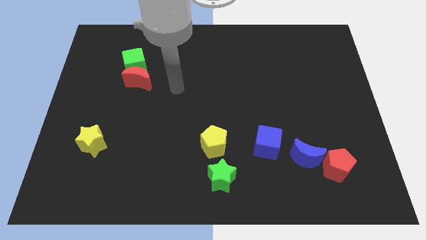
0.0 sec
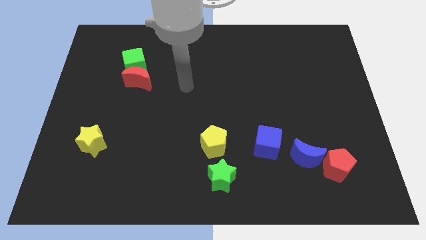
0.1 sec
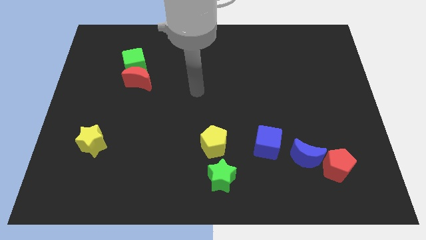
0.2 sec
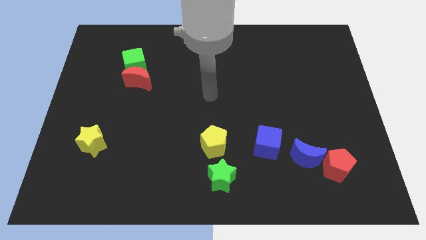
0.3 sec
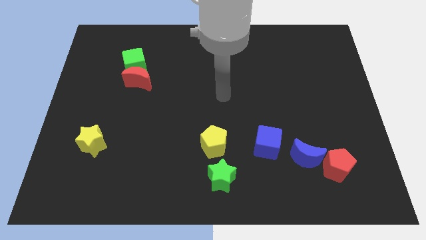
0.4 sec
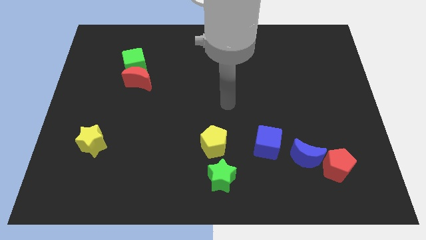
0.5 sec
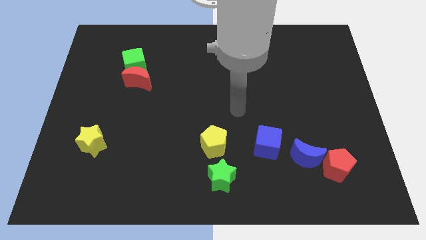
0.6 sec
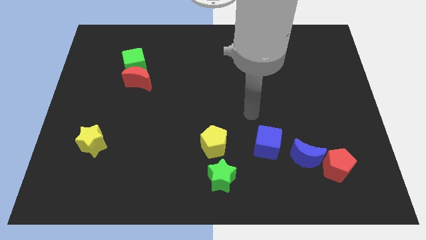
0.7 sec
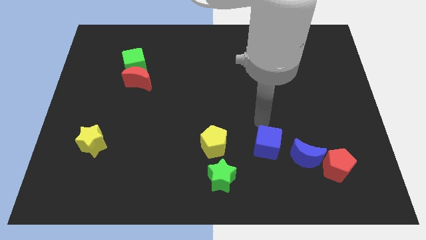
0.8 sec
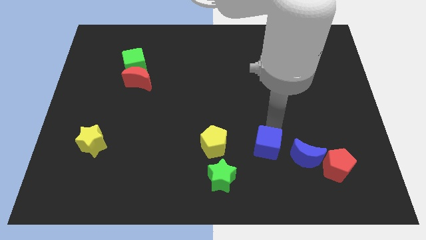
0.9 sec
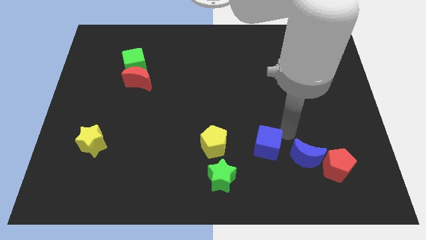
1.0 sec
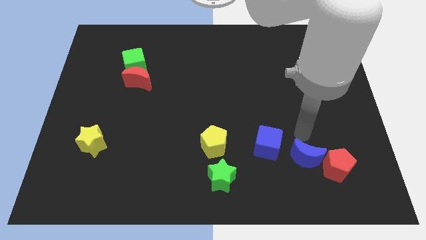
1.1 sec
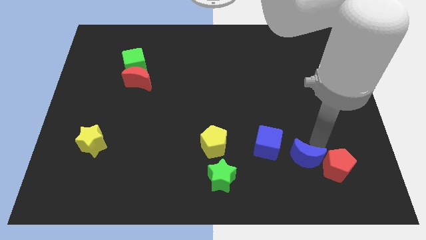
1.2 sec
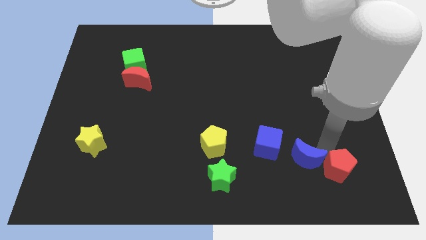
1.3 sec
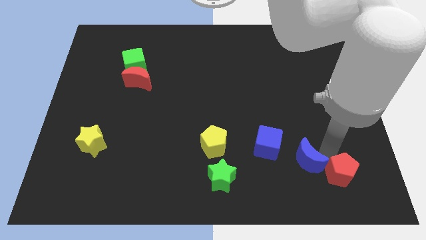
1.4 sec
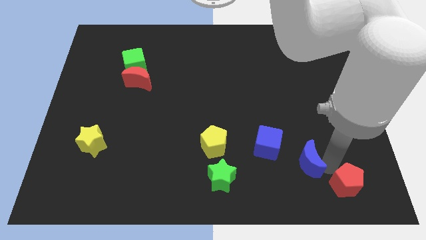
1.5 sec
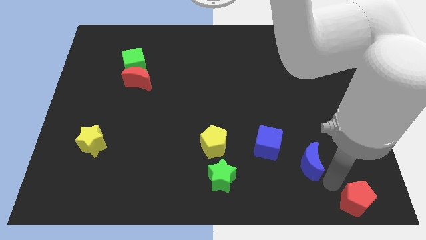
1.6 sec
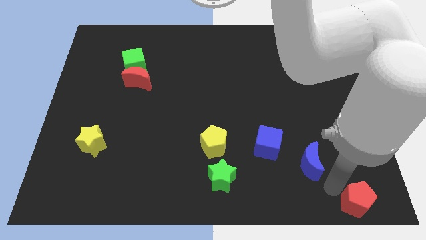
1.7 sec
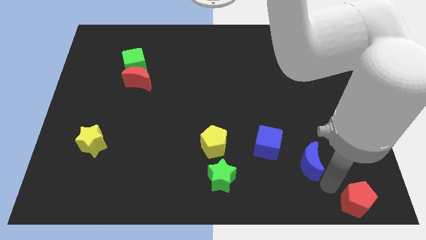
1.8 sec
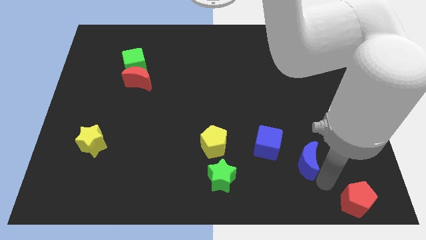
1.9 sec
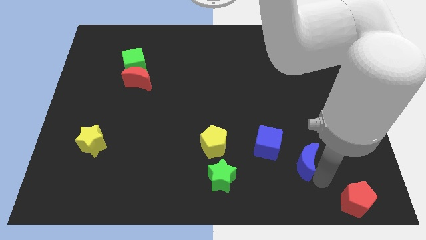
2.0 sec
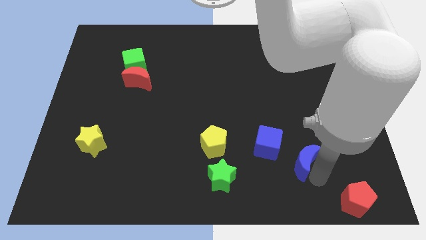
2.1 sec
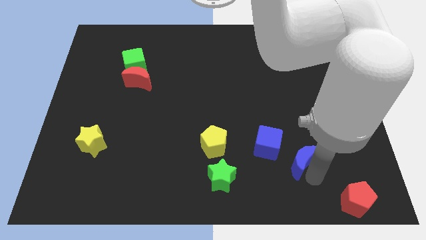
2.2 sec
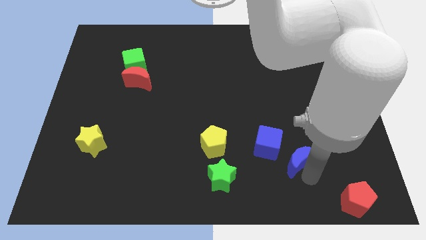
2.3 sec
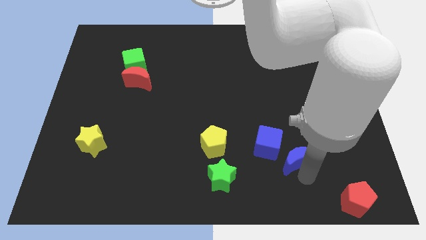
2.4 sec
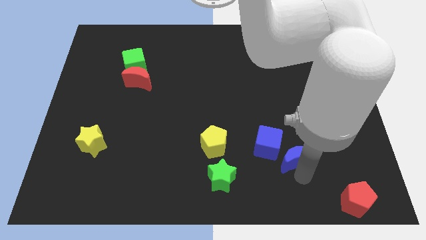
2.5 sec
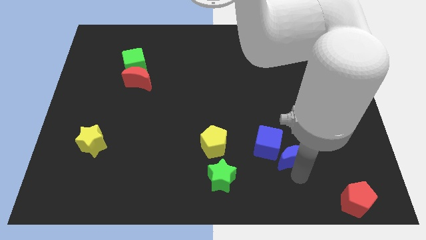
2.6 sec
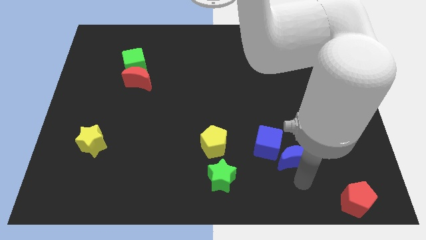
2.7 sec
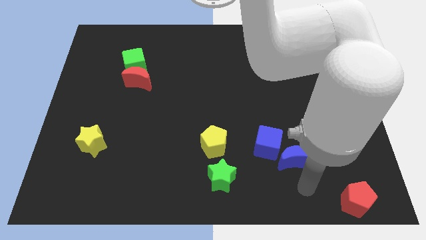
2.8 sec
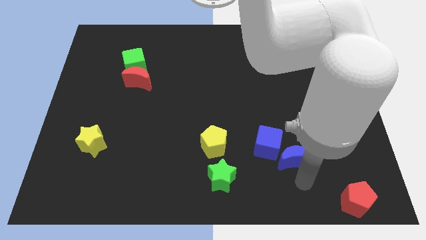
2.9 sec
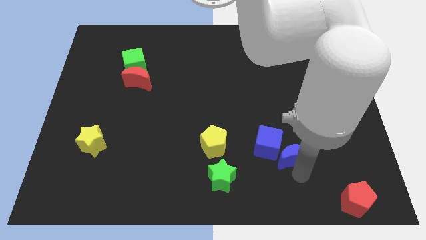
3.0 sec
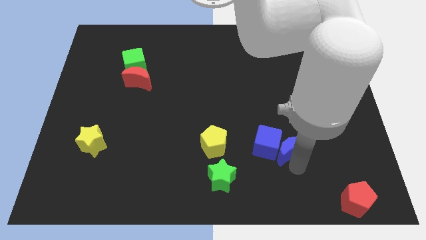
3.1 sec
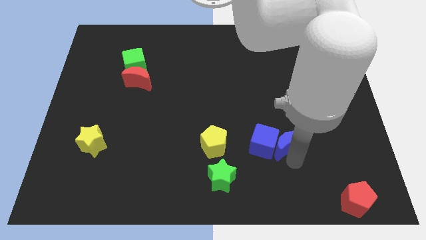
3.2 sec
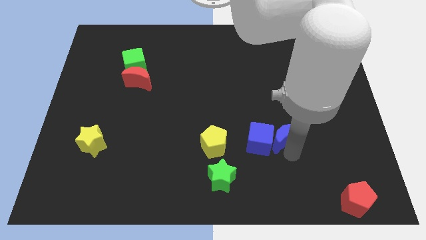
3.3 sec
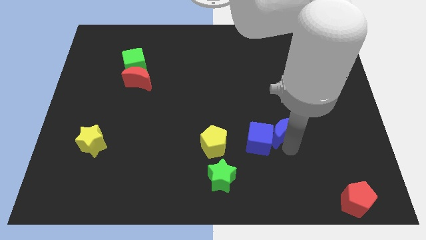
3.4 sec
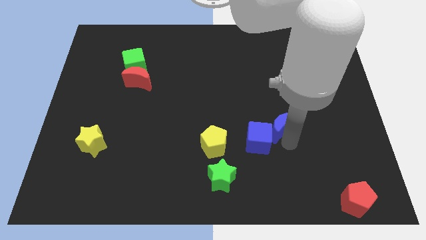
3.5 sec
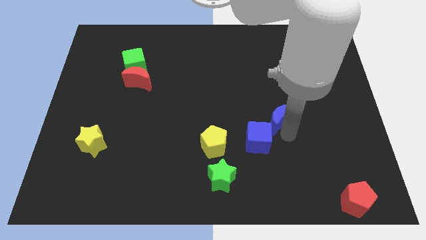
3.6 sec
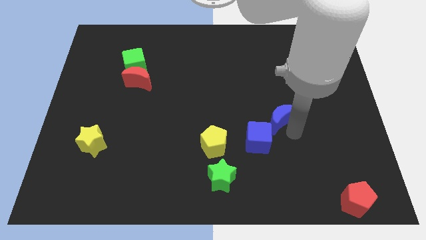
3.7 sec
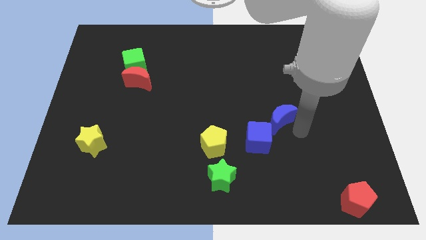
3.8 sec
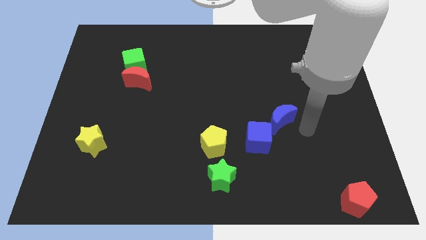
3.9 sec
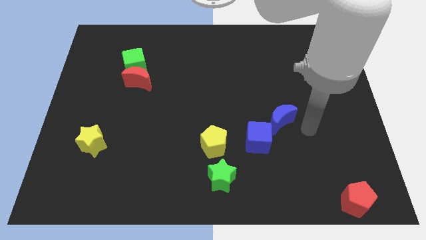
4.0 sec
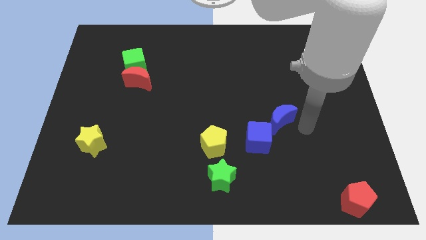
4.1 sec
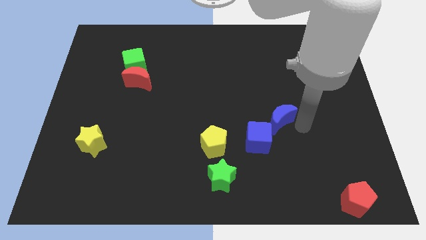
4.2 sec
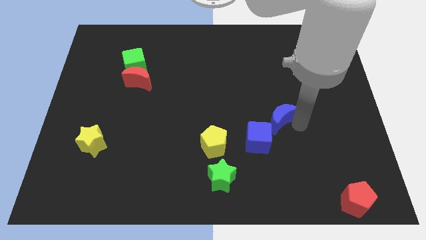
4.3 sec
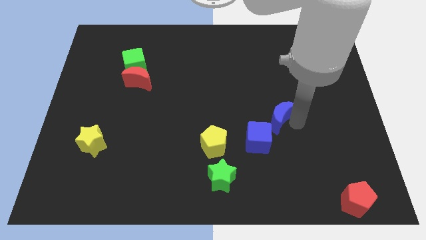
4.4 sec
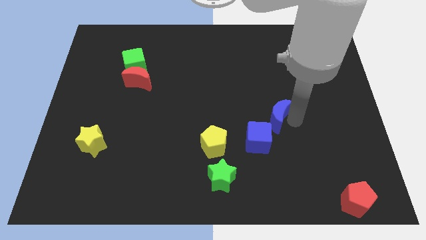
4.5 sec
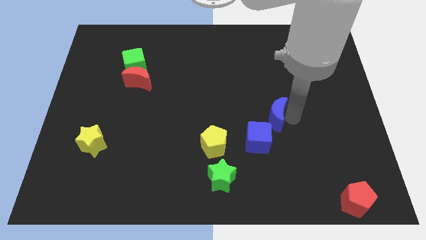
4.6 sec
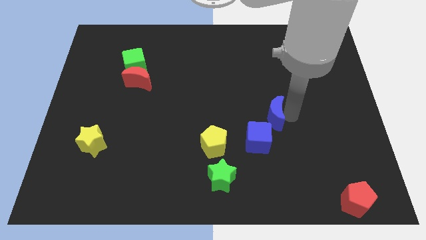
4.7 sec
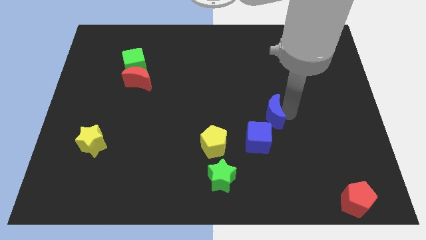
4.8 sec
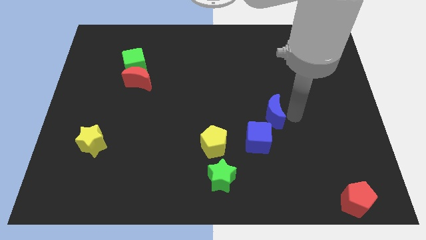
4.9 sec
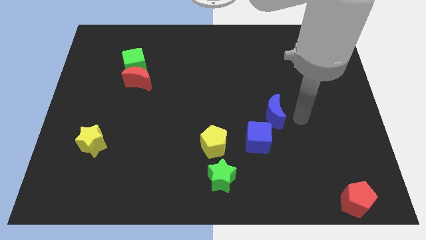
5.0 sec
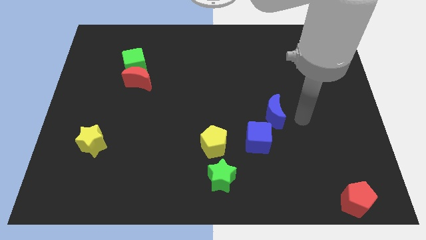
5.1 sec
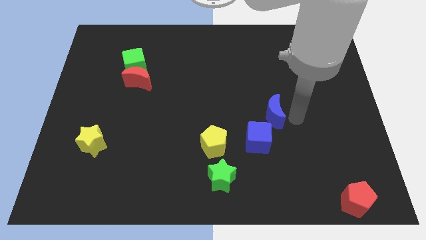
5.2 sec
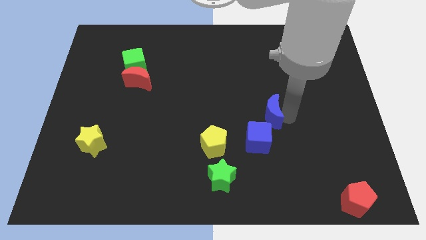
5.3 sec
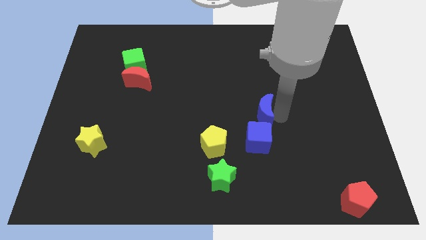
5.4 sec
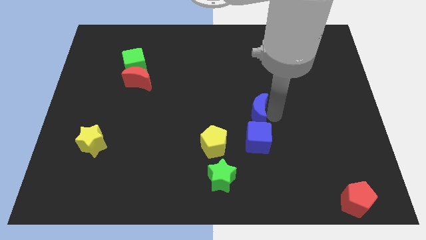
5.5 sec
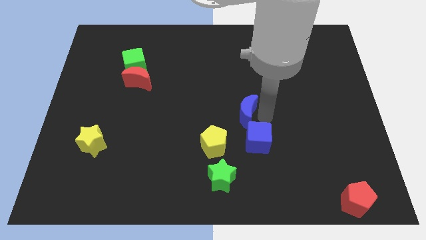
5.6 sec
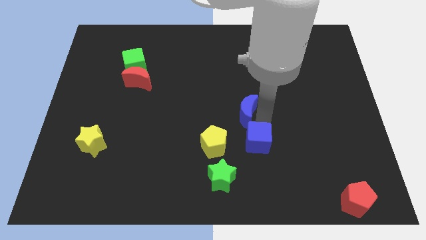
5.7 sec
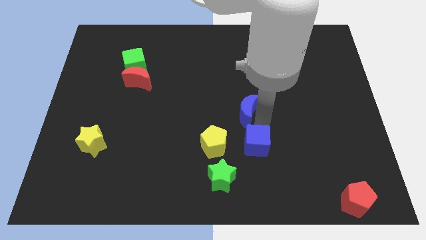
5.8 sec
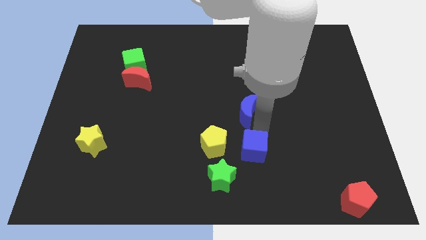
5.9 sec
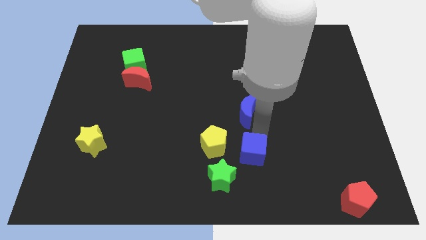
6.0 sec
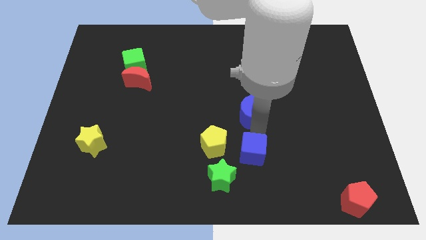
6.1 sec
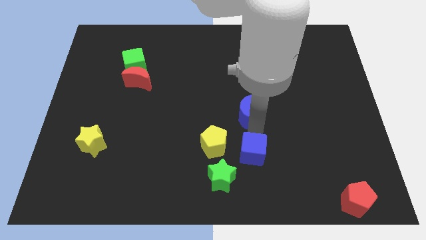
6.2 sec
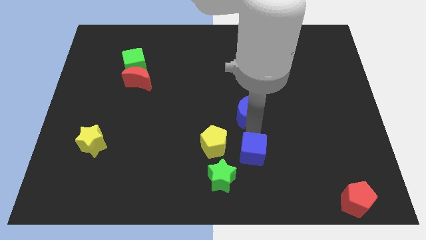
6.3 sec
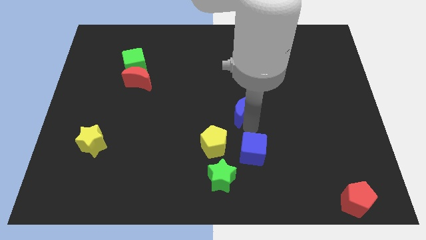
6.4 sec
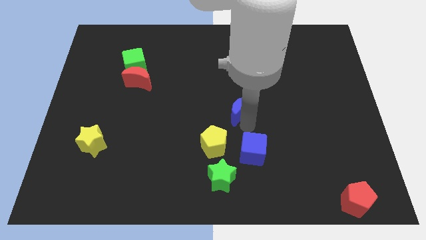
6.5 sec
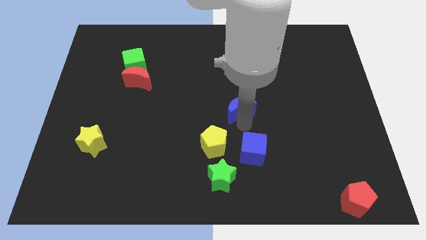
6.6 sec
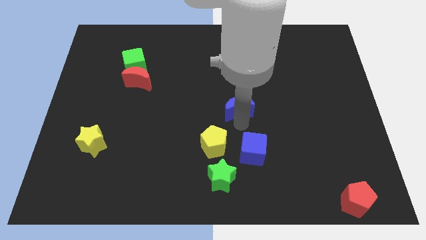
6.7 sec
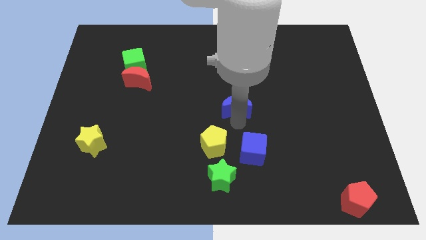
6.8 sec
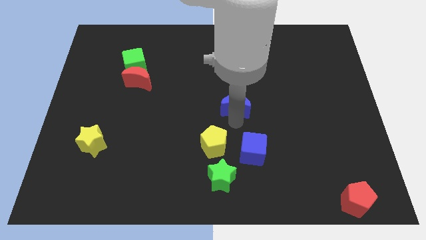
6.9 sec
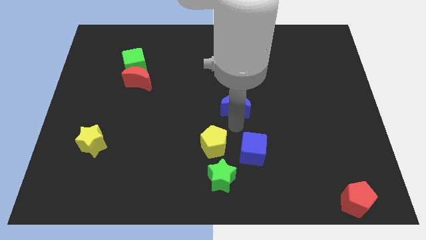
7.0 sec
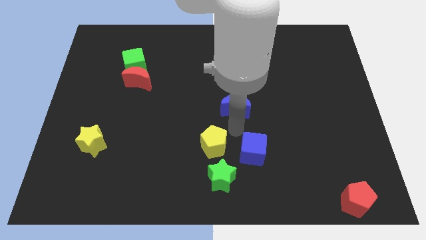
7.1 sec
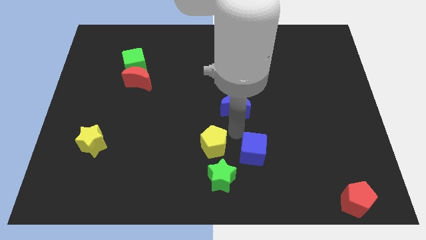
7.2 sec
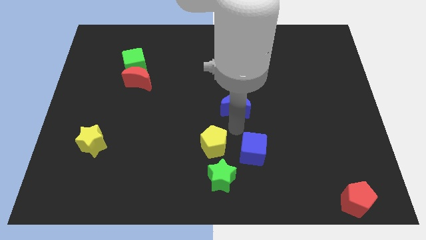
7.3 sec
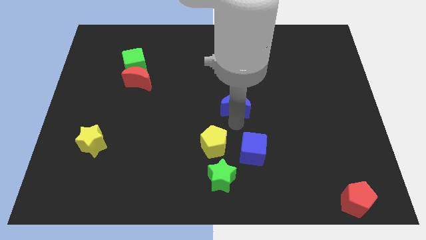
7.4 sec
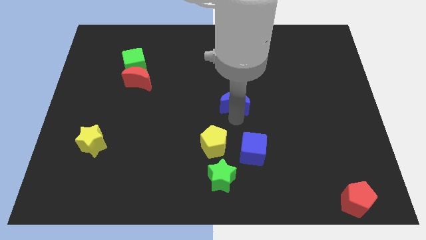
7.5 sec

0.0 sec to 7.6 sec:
slide the blue moon diagonally up and left
